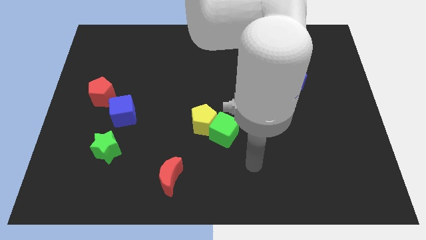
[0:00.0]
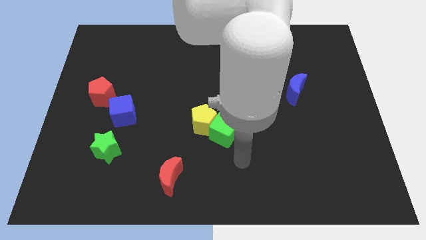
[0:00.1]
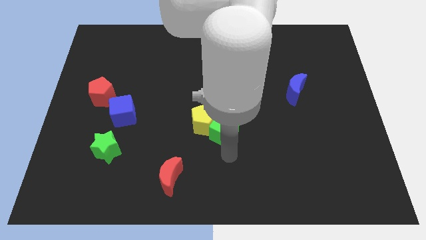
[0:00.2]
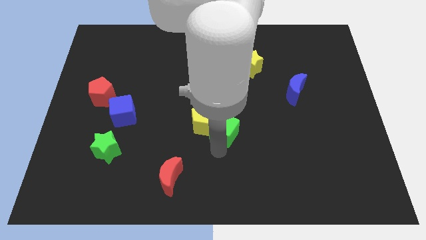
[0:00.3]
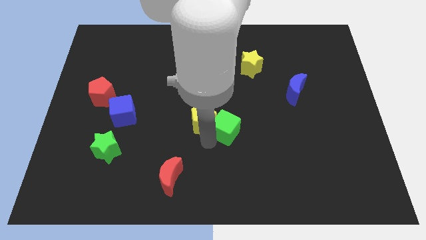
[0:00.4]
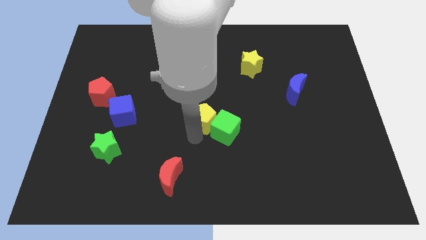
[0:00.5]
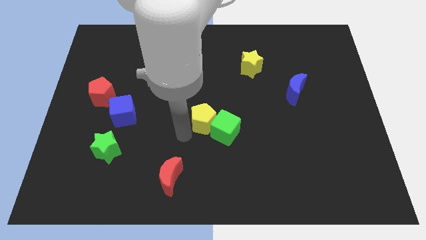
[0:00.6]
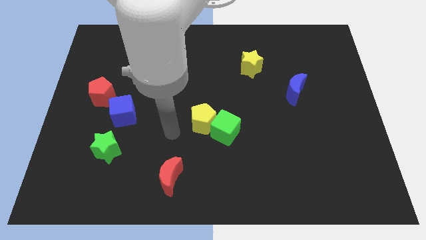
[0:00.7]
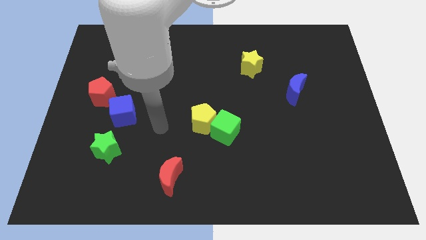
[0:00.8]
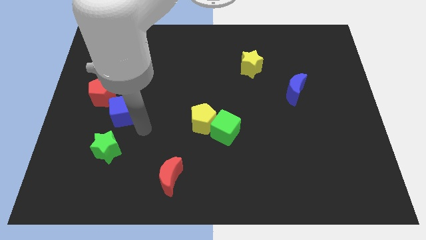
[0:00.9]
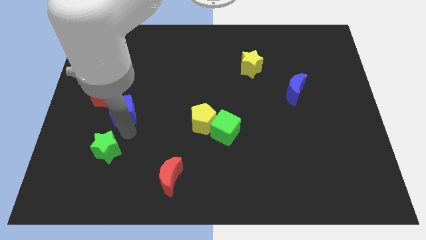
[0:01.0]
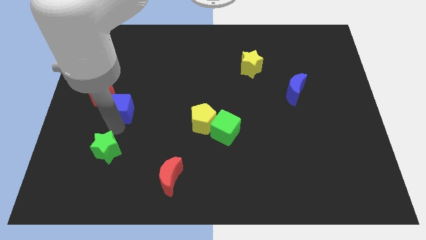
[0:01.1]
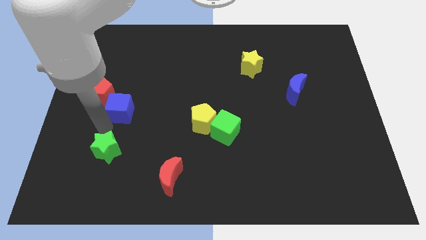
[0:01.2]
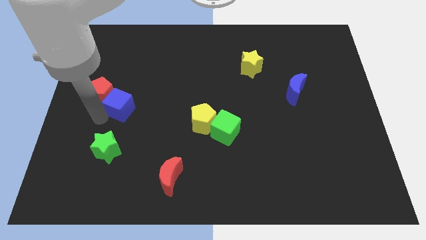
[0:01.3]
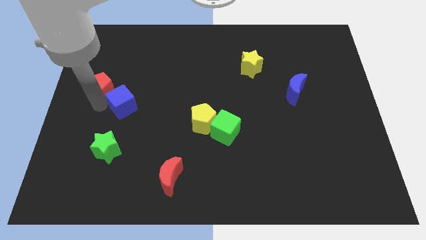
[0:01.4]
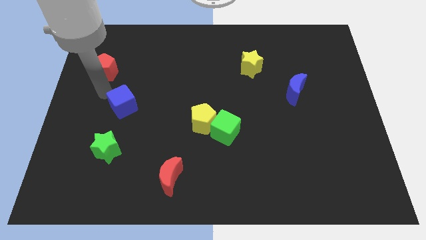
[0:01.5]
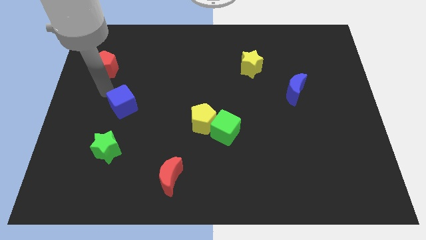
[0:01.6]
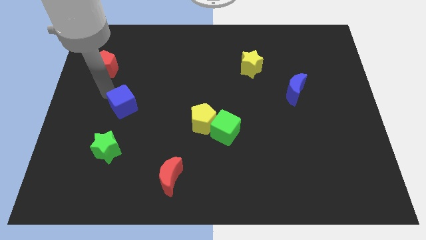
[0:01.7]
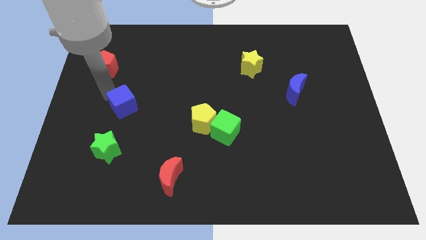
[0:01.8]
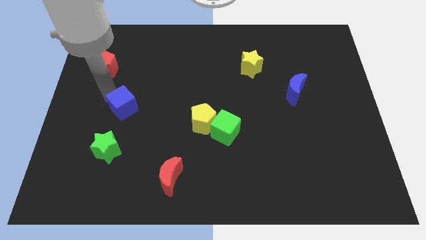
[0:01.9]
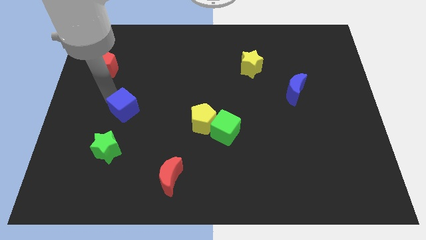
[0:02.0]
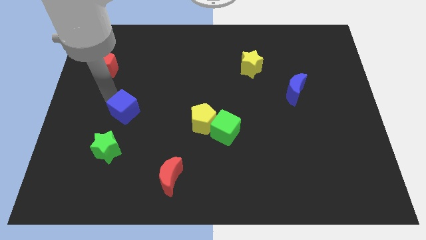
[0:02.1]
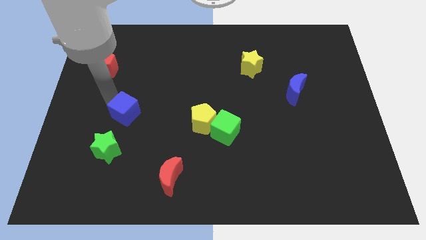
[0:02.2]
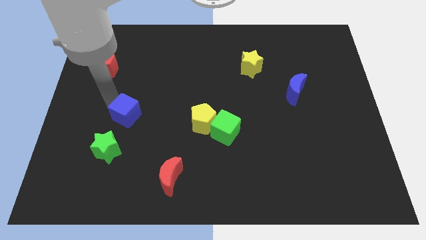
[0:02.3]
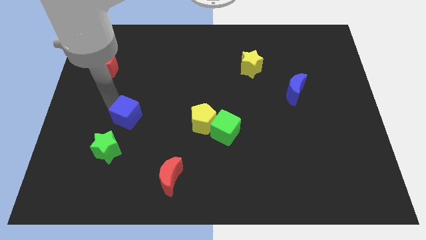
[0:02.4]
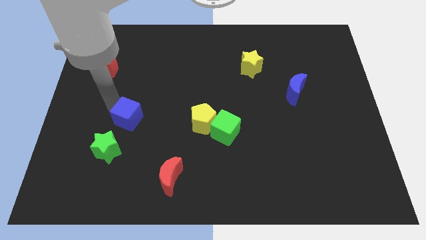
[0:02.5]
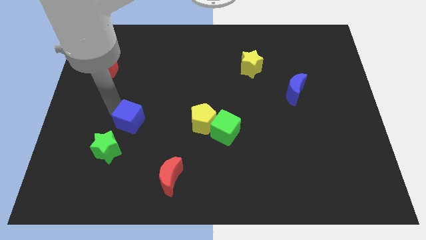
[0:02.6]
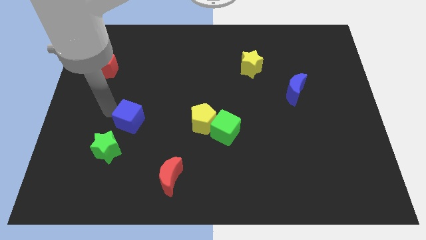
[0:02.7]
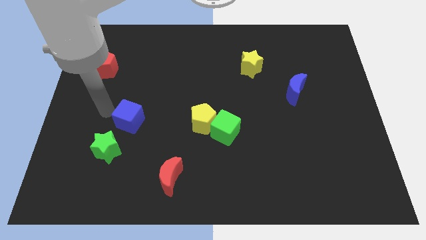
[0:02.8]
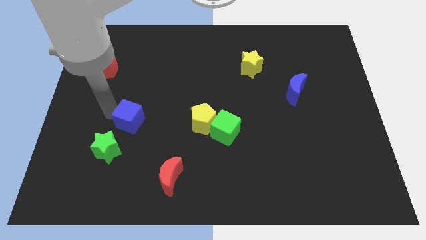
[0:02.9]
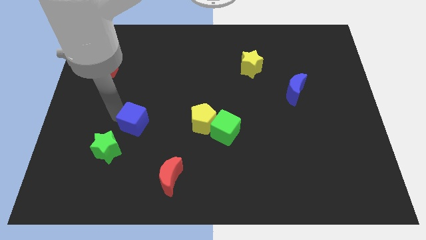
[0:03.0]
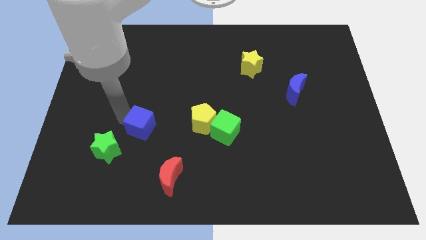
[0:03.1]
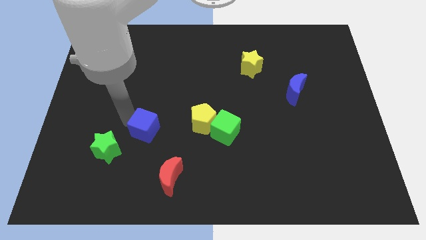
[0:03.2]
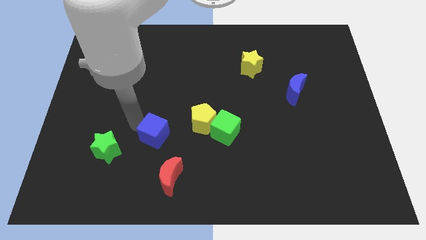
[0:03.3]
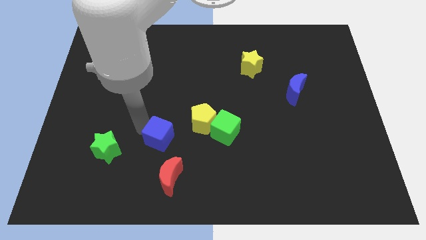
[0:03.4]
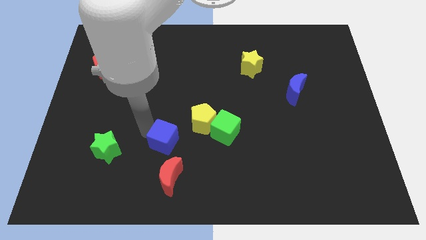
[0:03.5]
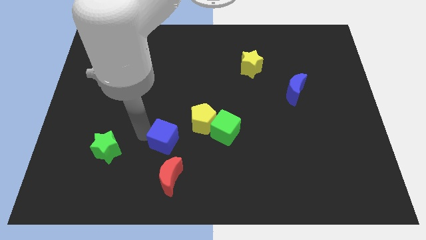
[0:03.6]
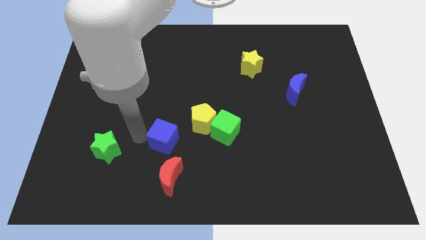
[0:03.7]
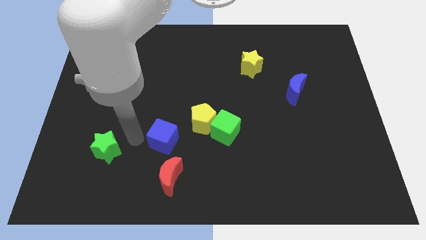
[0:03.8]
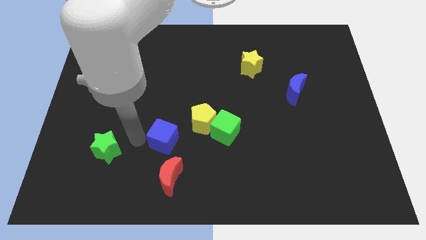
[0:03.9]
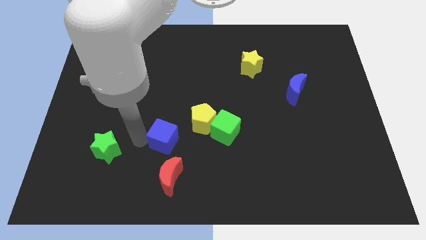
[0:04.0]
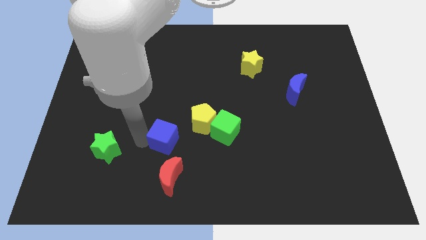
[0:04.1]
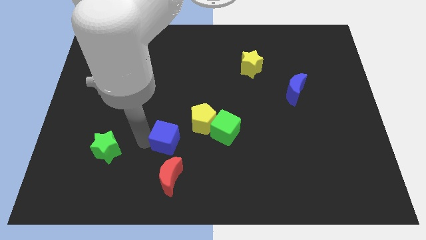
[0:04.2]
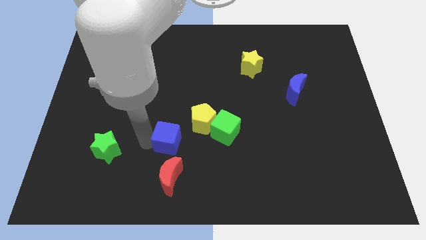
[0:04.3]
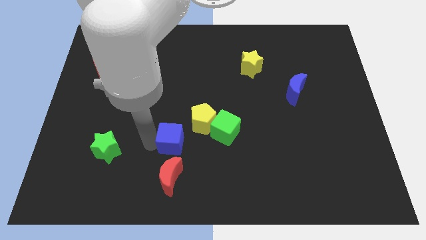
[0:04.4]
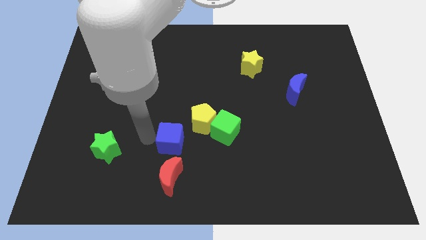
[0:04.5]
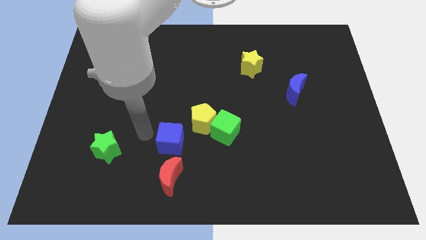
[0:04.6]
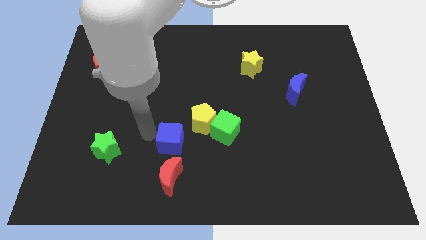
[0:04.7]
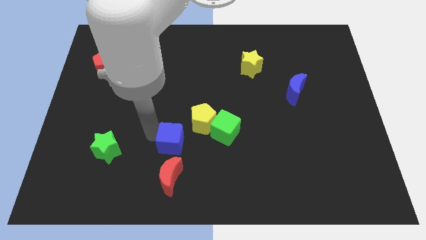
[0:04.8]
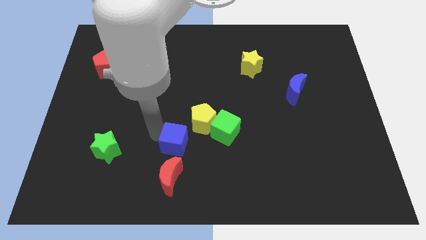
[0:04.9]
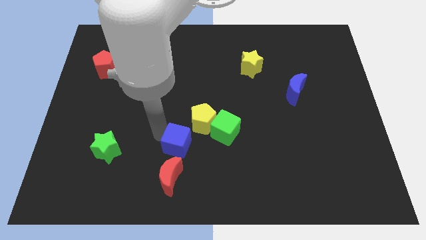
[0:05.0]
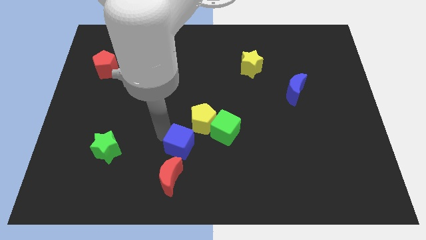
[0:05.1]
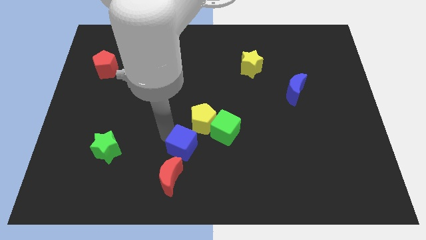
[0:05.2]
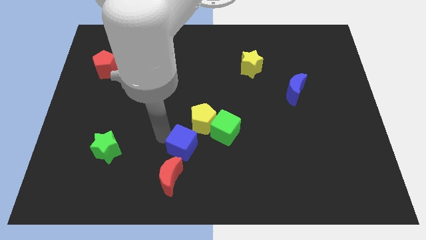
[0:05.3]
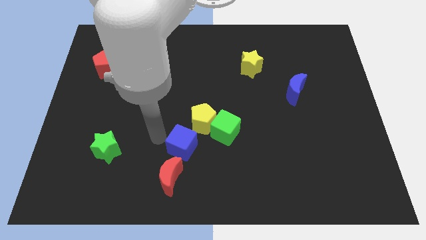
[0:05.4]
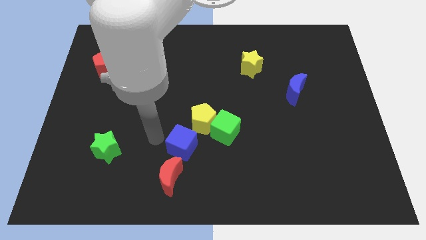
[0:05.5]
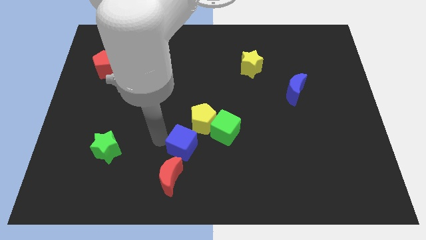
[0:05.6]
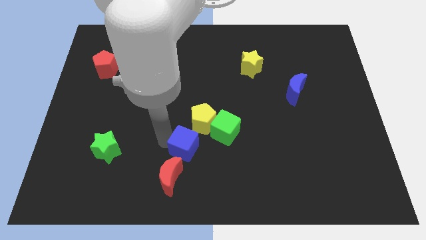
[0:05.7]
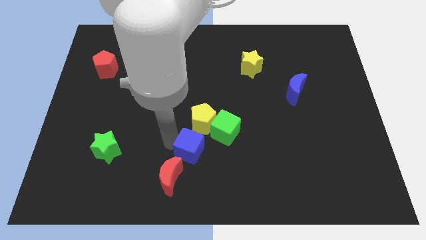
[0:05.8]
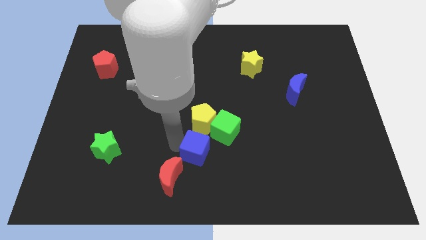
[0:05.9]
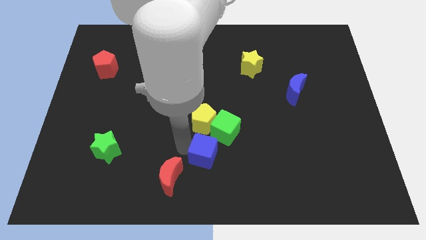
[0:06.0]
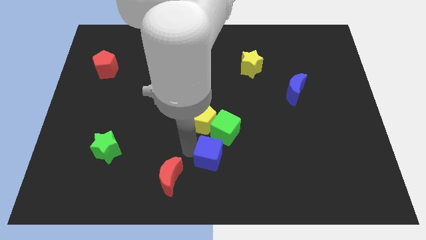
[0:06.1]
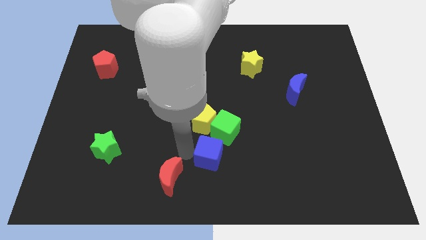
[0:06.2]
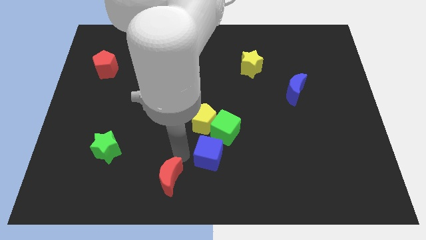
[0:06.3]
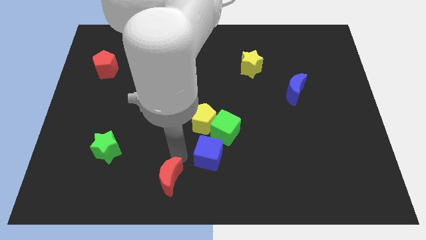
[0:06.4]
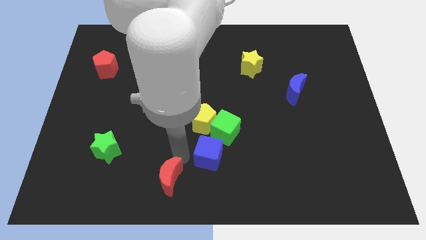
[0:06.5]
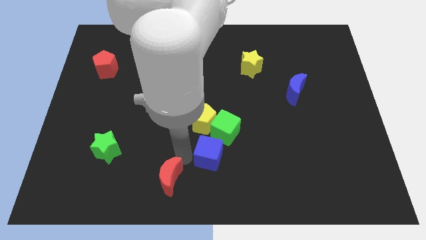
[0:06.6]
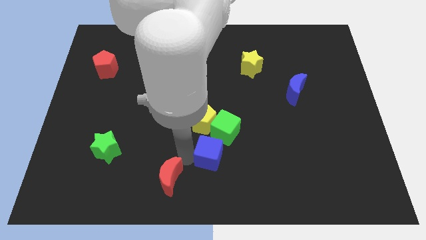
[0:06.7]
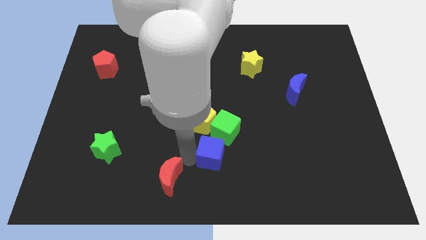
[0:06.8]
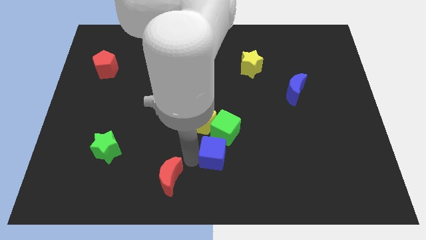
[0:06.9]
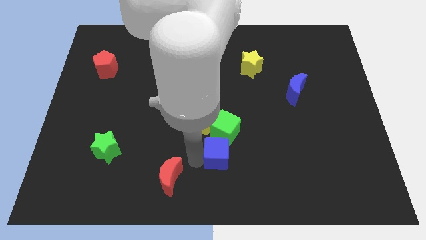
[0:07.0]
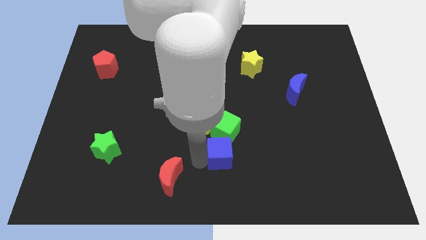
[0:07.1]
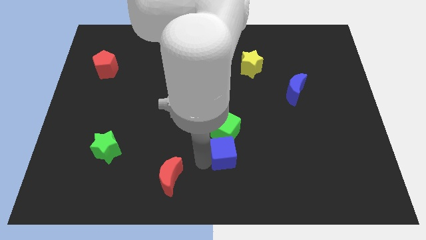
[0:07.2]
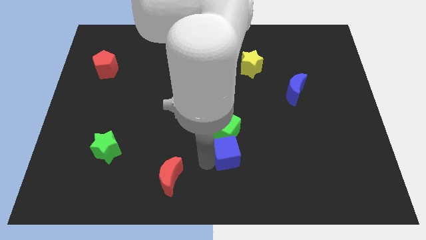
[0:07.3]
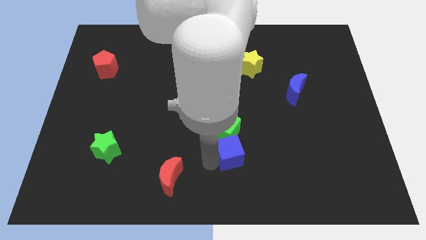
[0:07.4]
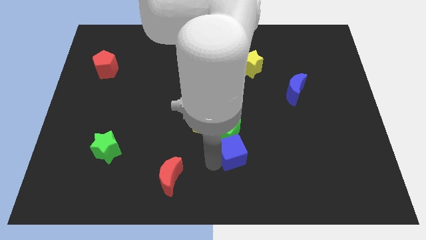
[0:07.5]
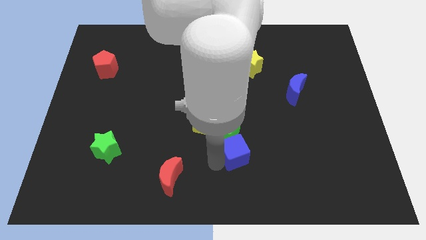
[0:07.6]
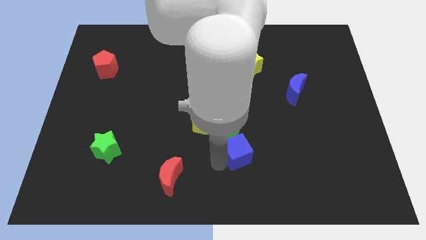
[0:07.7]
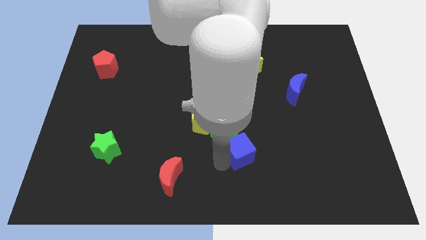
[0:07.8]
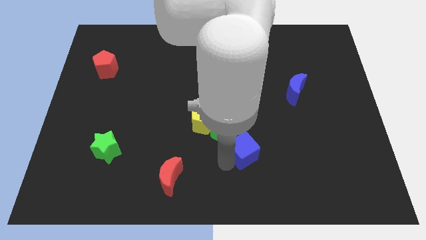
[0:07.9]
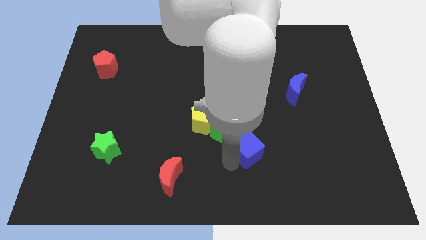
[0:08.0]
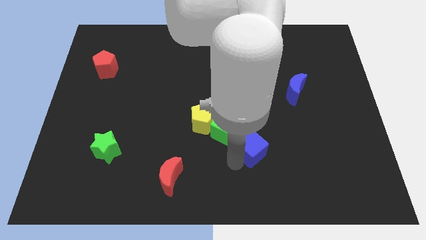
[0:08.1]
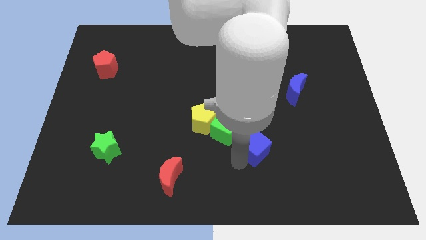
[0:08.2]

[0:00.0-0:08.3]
slide the blue cube to the right of the green cube

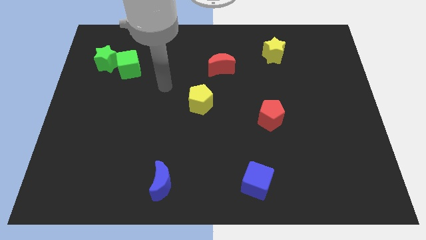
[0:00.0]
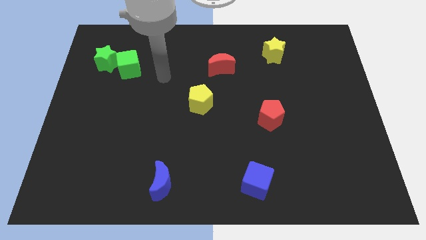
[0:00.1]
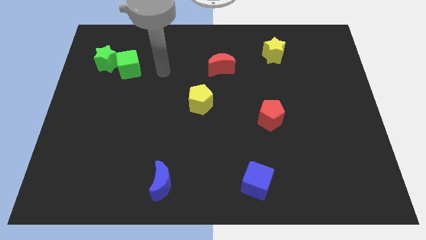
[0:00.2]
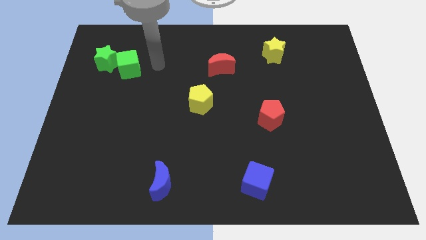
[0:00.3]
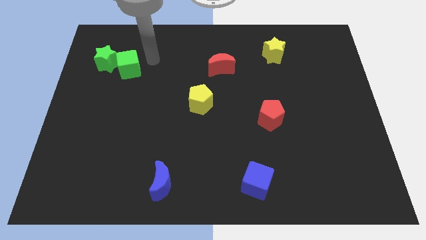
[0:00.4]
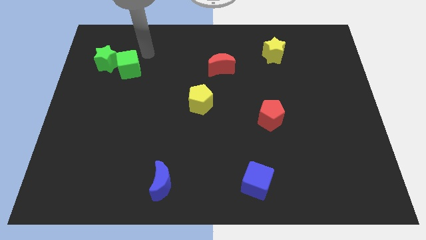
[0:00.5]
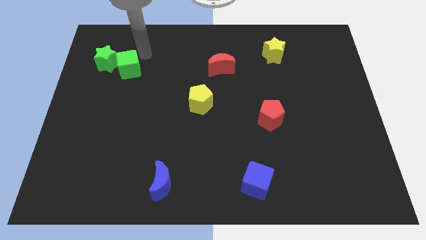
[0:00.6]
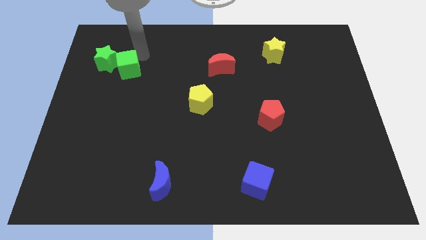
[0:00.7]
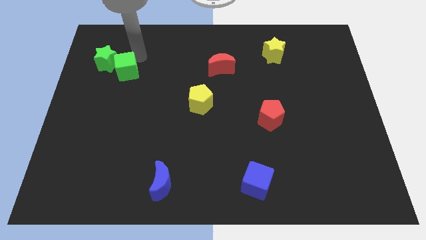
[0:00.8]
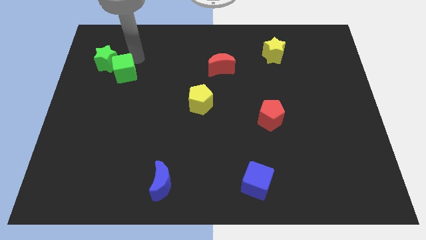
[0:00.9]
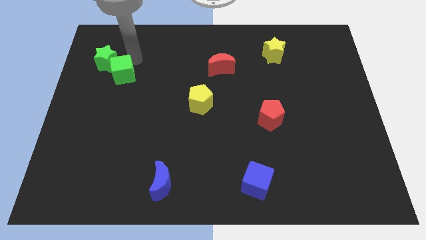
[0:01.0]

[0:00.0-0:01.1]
slide the green cube below the green star
